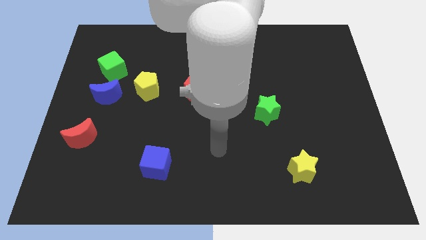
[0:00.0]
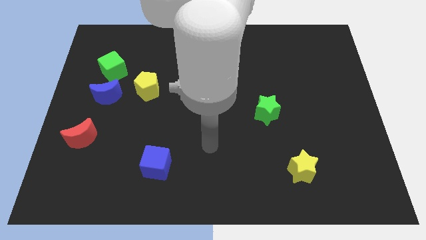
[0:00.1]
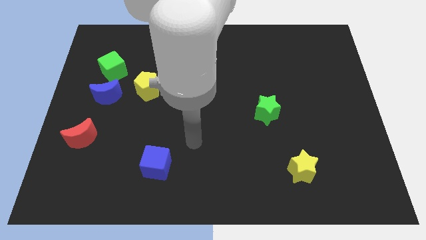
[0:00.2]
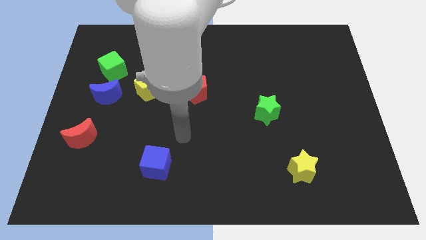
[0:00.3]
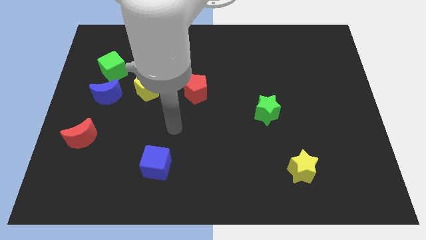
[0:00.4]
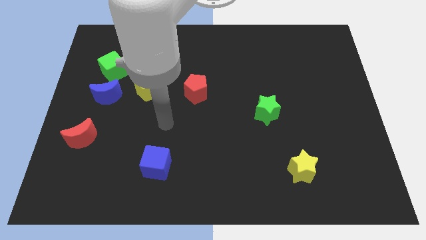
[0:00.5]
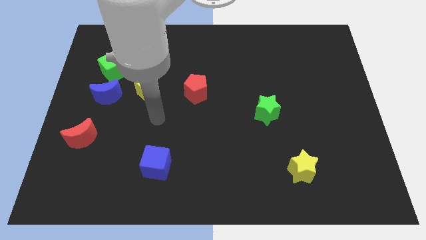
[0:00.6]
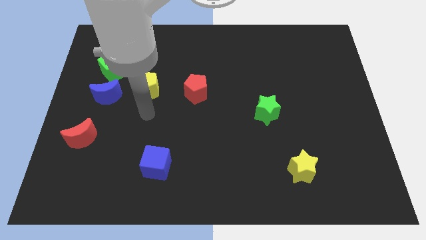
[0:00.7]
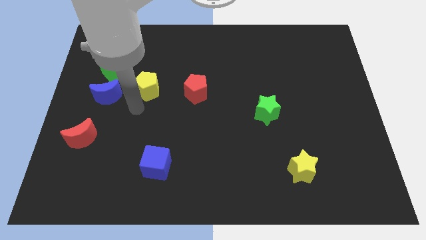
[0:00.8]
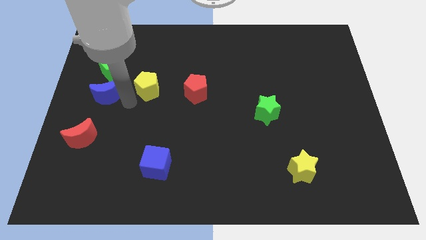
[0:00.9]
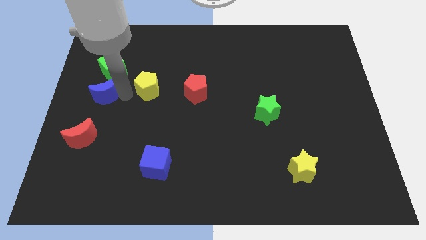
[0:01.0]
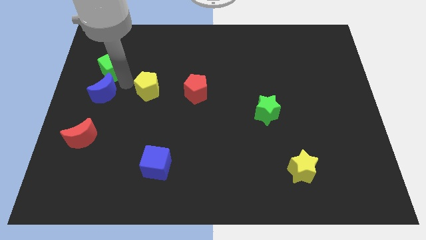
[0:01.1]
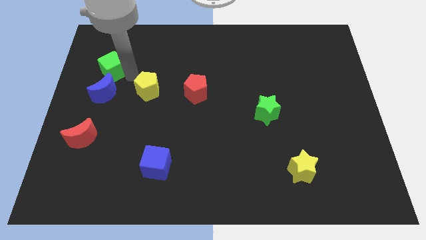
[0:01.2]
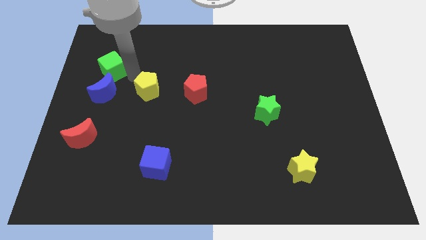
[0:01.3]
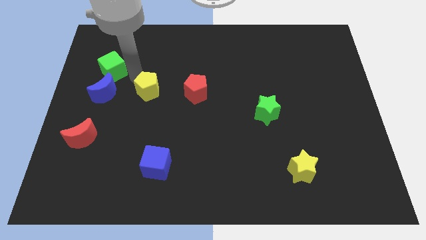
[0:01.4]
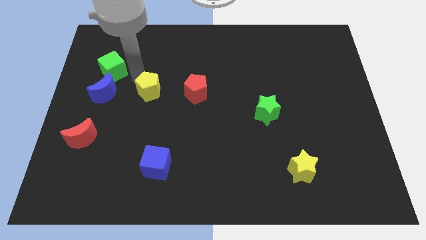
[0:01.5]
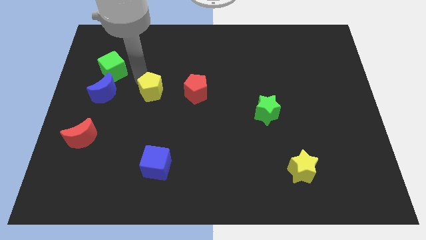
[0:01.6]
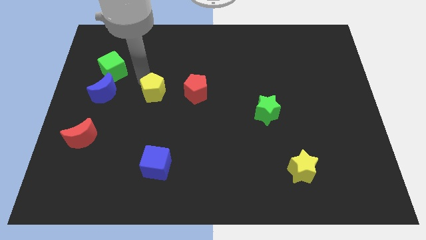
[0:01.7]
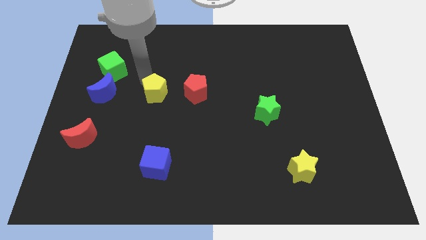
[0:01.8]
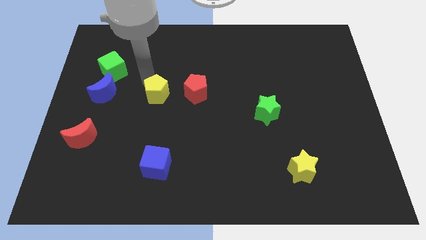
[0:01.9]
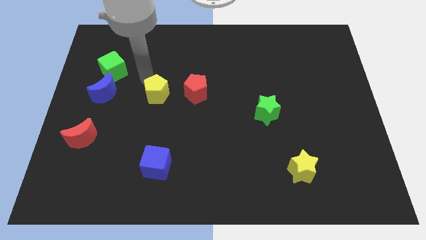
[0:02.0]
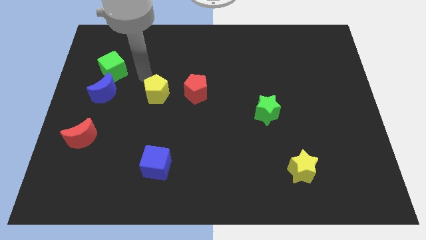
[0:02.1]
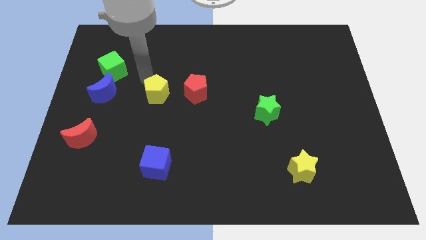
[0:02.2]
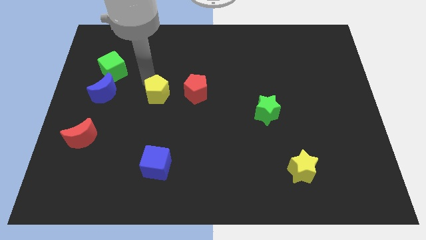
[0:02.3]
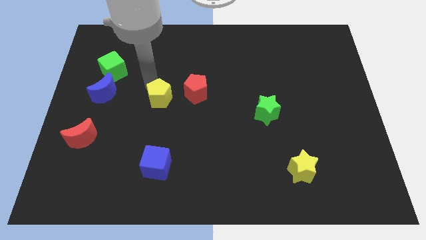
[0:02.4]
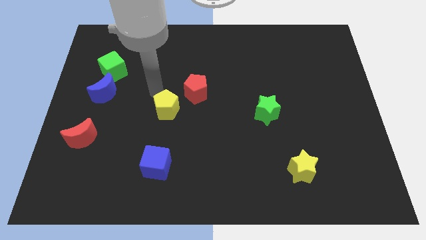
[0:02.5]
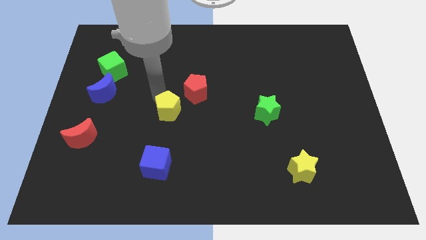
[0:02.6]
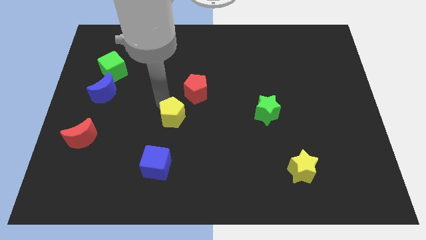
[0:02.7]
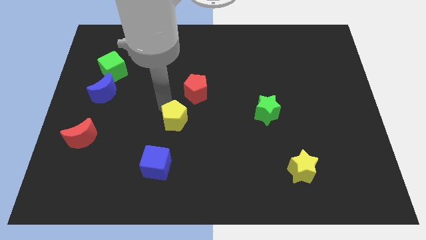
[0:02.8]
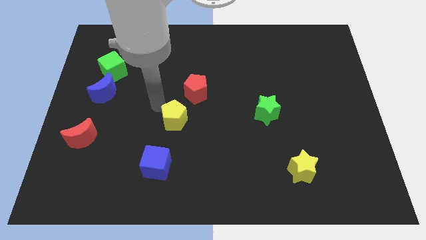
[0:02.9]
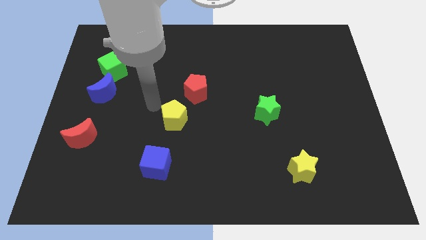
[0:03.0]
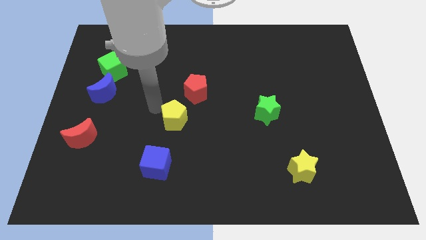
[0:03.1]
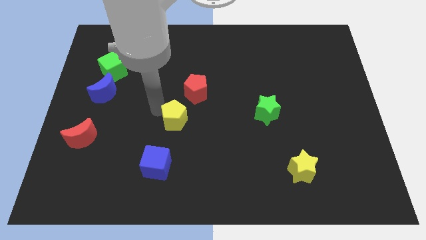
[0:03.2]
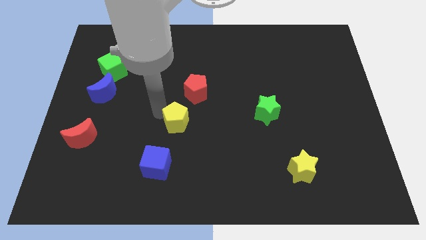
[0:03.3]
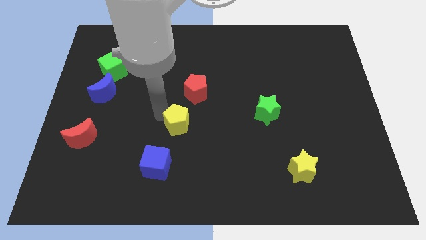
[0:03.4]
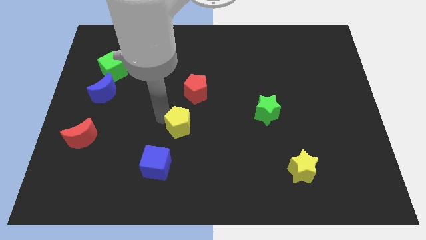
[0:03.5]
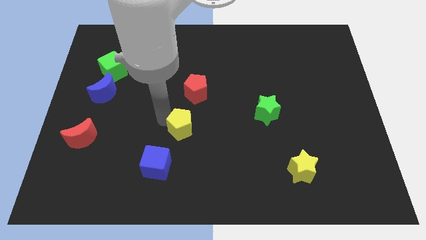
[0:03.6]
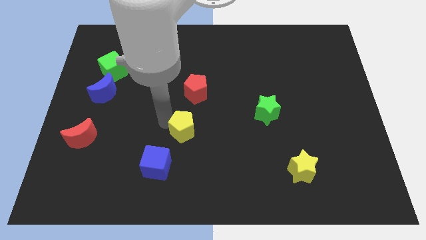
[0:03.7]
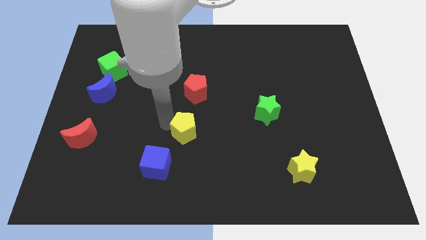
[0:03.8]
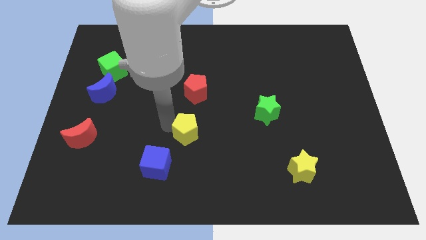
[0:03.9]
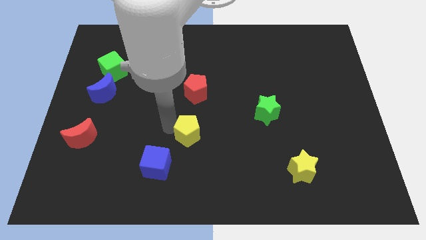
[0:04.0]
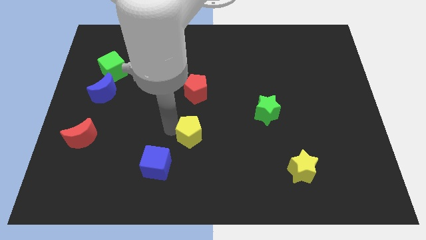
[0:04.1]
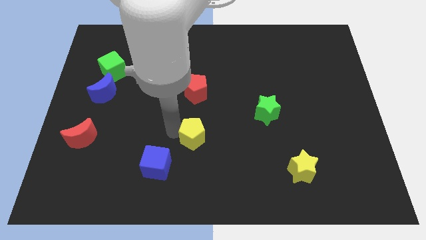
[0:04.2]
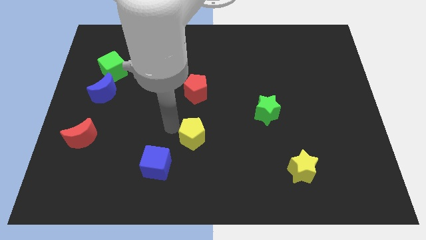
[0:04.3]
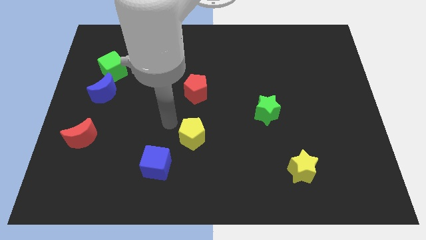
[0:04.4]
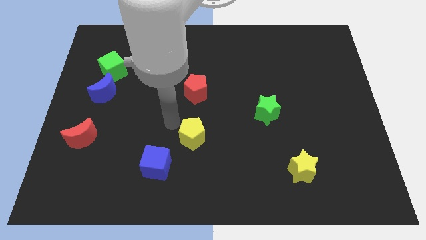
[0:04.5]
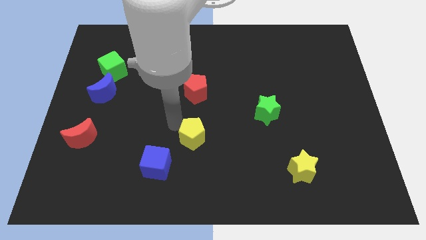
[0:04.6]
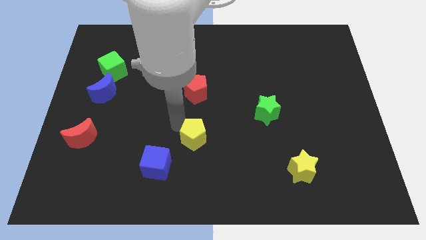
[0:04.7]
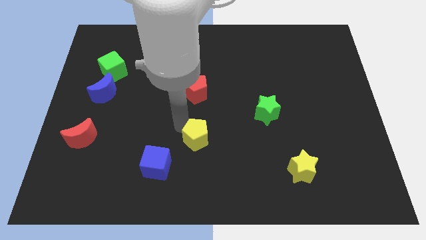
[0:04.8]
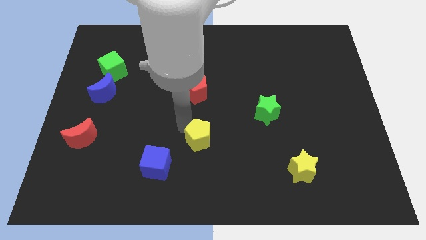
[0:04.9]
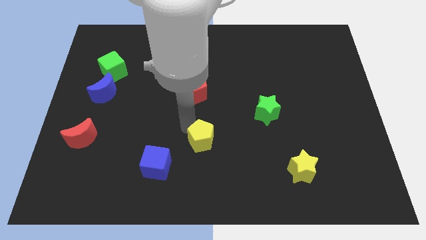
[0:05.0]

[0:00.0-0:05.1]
move the yellow pentagon downwards and right

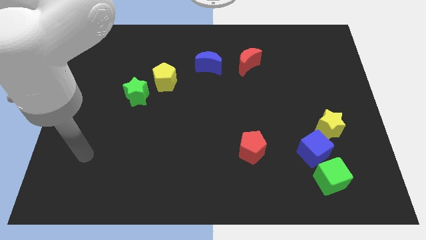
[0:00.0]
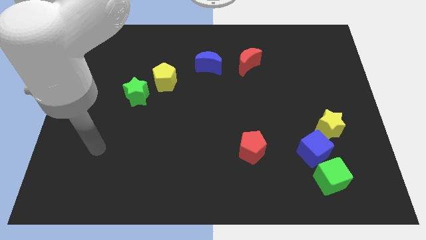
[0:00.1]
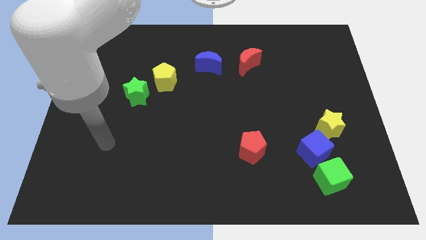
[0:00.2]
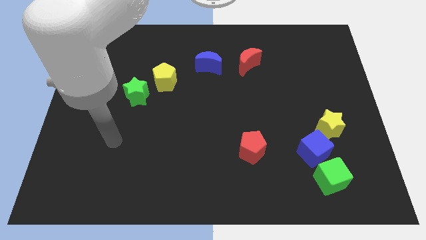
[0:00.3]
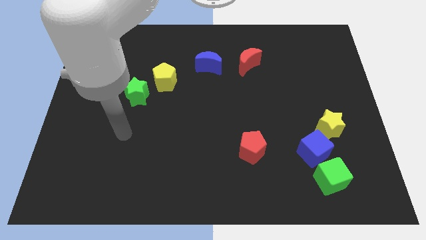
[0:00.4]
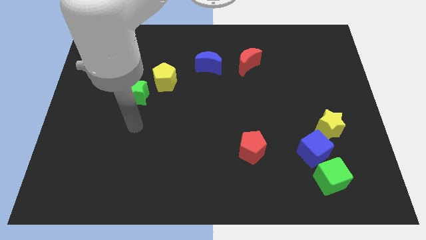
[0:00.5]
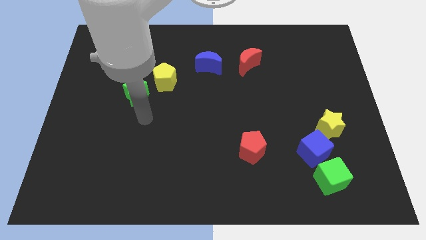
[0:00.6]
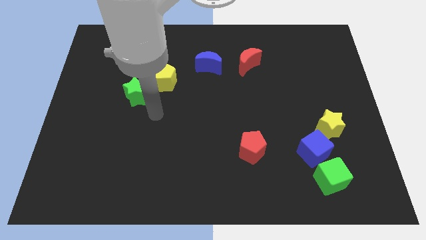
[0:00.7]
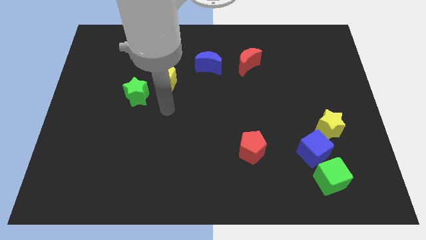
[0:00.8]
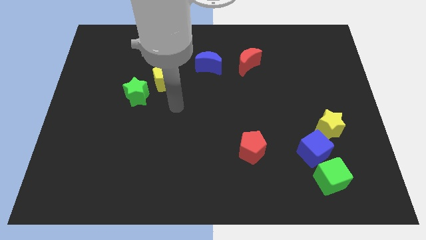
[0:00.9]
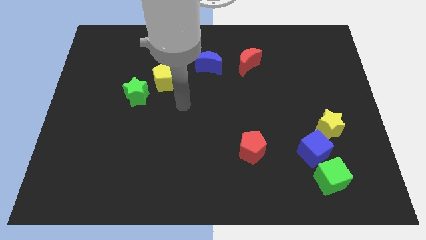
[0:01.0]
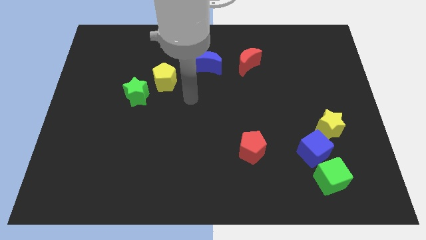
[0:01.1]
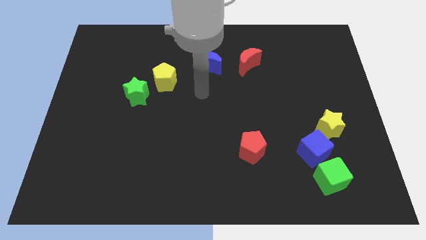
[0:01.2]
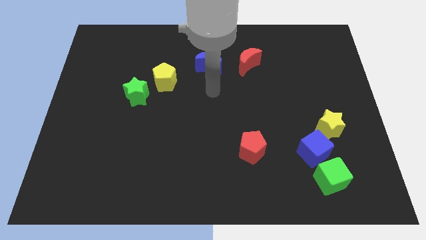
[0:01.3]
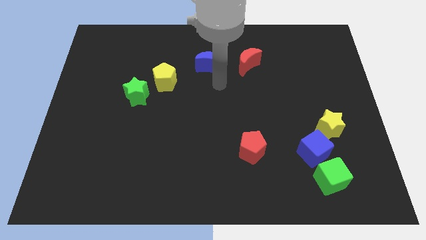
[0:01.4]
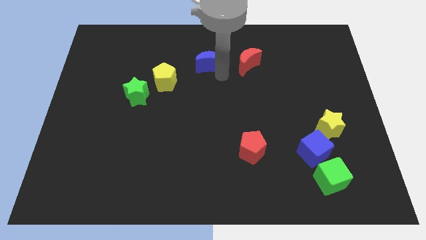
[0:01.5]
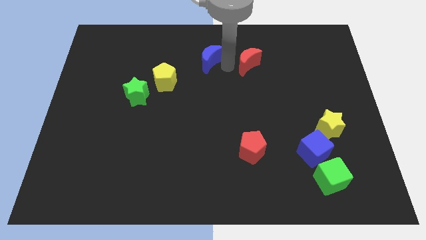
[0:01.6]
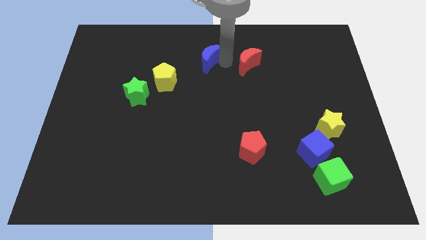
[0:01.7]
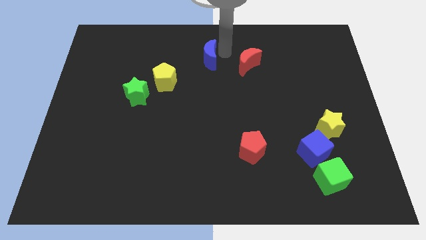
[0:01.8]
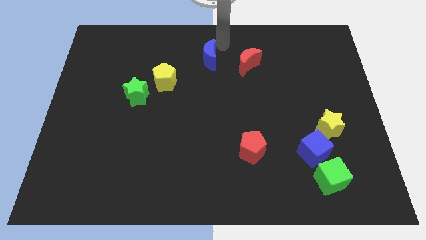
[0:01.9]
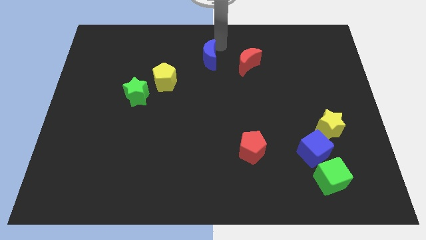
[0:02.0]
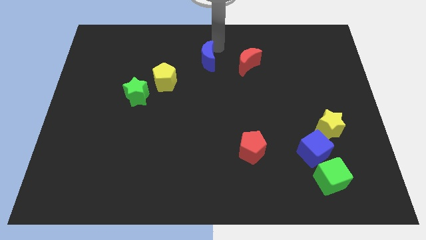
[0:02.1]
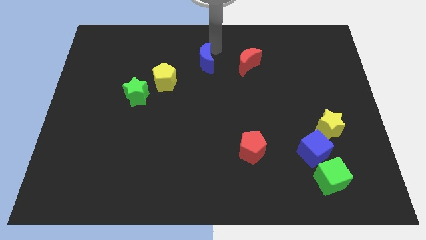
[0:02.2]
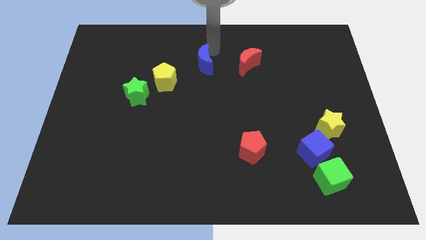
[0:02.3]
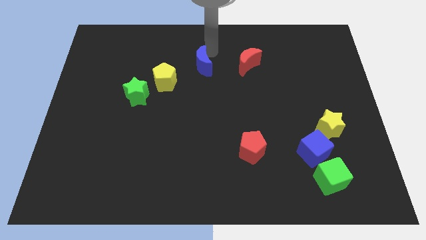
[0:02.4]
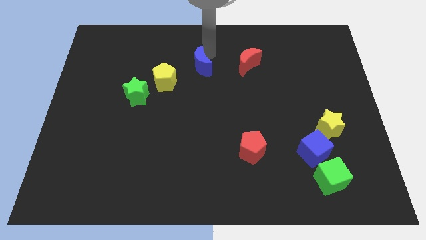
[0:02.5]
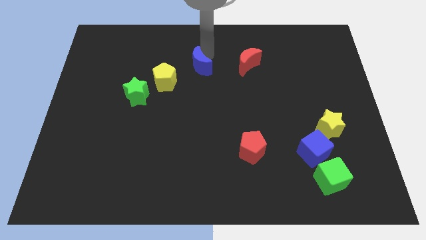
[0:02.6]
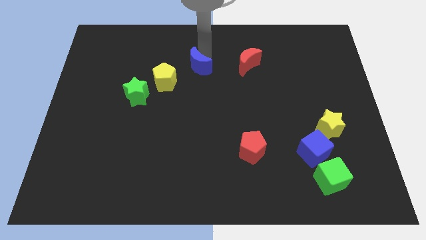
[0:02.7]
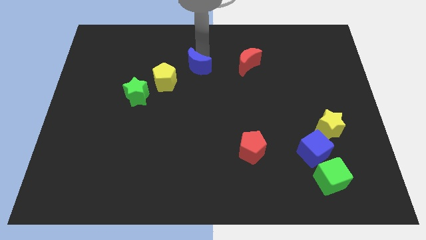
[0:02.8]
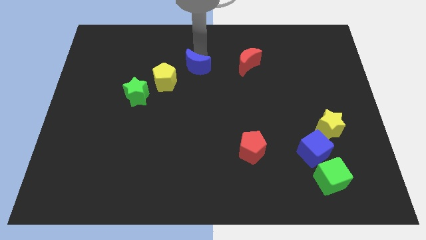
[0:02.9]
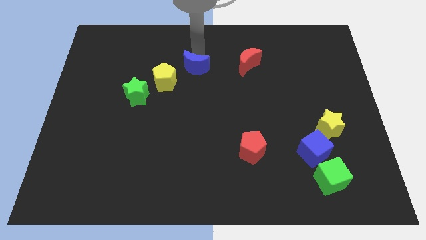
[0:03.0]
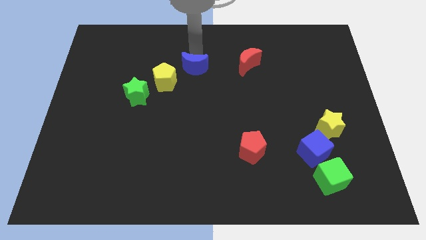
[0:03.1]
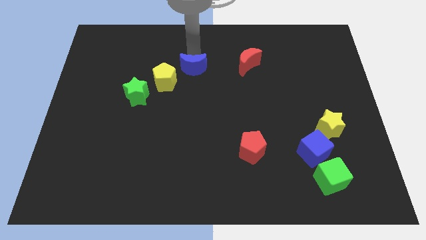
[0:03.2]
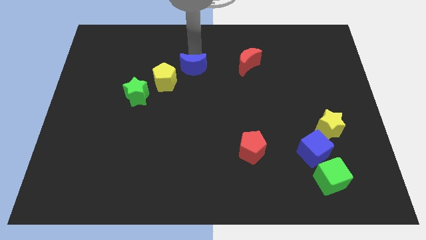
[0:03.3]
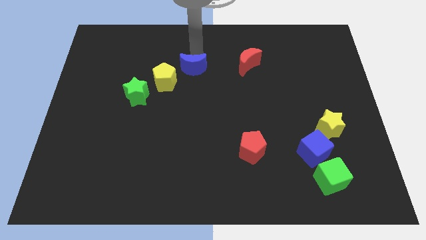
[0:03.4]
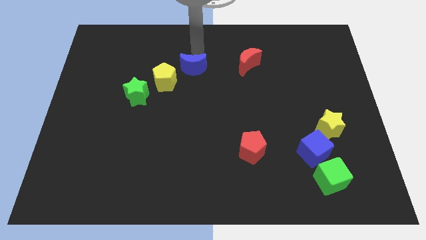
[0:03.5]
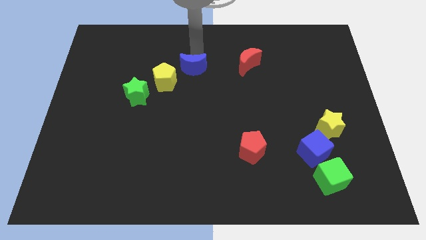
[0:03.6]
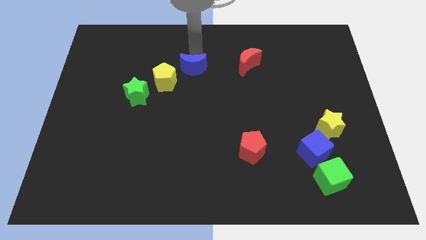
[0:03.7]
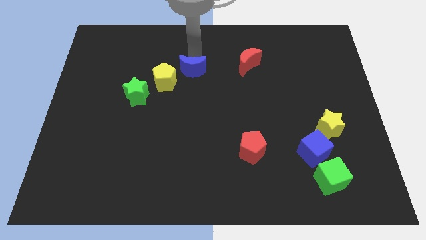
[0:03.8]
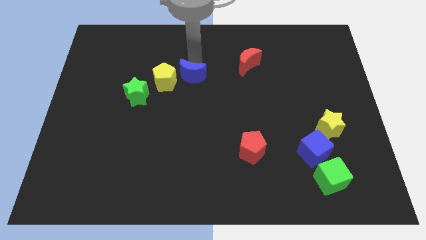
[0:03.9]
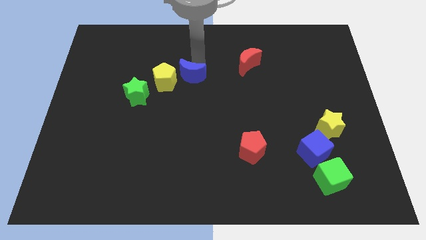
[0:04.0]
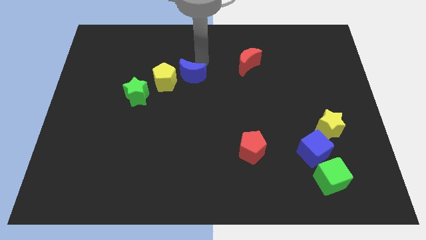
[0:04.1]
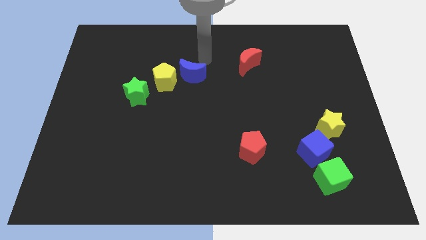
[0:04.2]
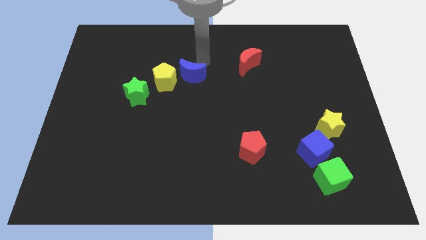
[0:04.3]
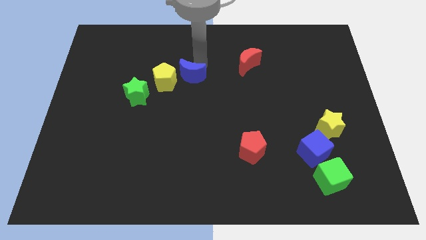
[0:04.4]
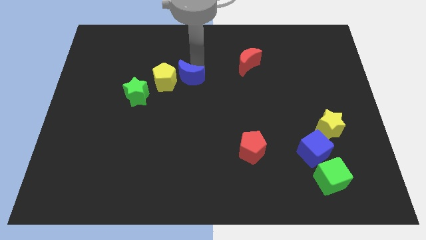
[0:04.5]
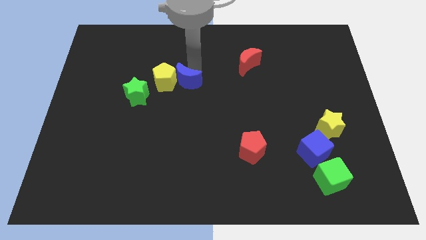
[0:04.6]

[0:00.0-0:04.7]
slightly push the blue moon downwards and left
